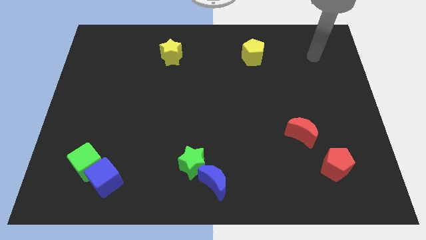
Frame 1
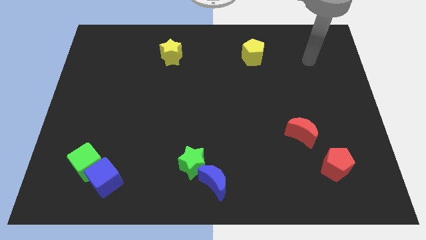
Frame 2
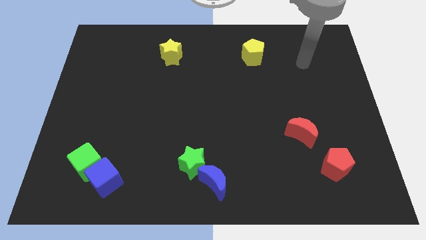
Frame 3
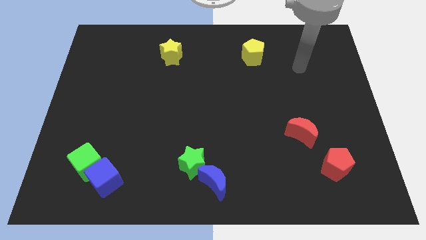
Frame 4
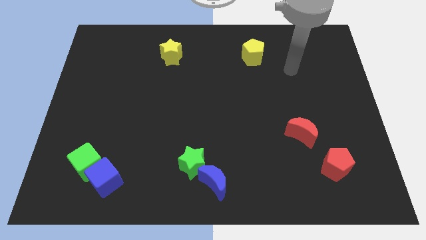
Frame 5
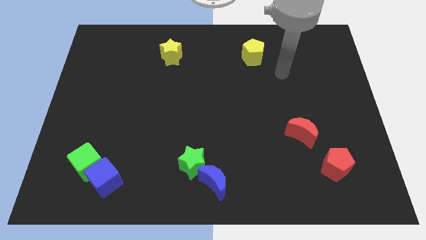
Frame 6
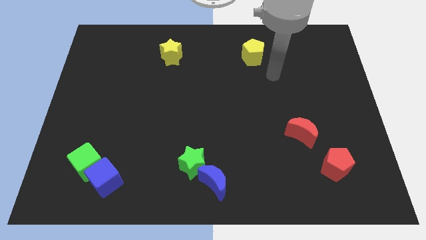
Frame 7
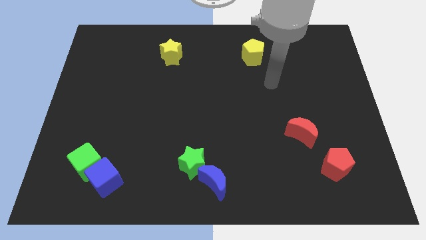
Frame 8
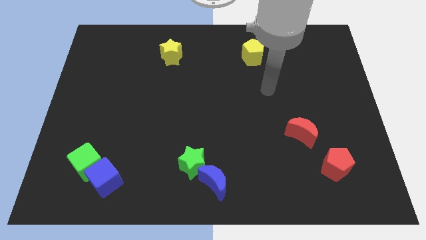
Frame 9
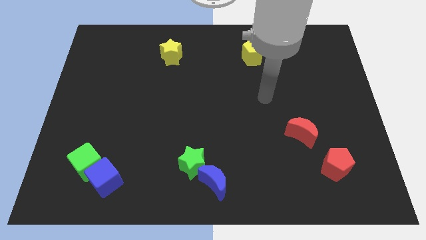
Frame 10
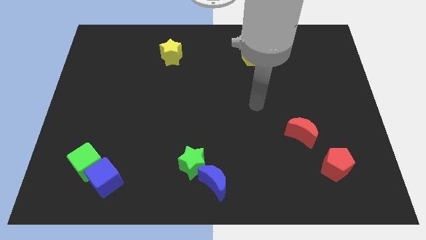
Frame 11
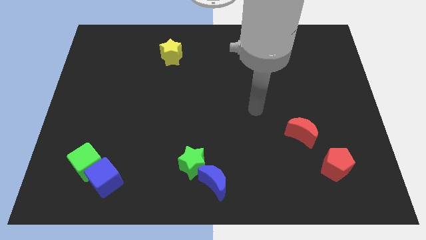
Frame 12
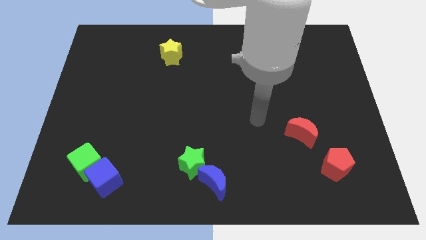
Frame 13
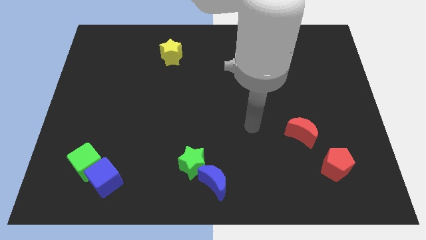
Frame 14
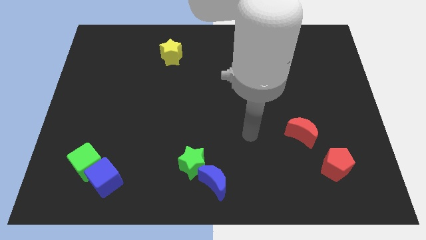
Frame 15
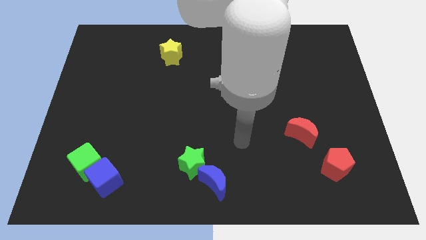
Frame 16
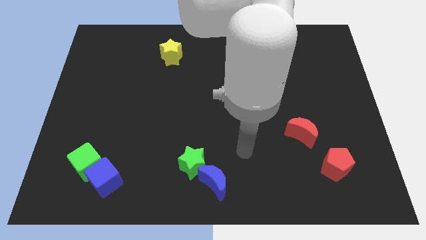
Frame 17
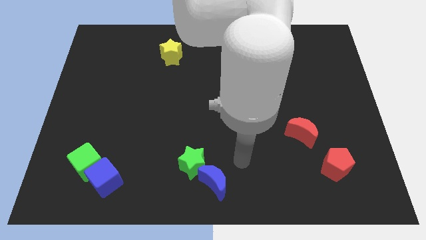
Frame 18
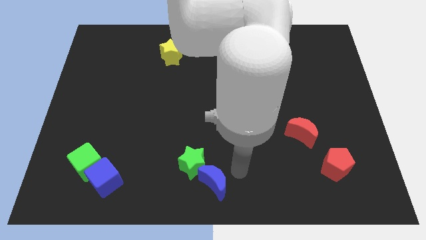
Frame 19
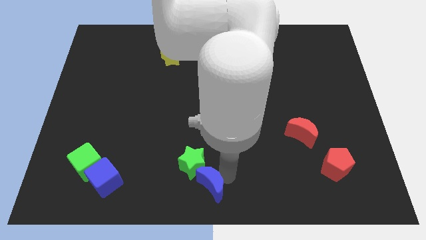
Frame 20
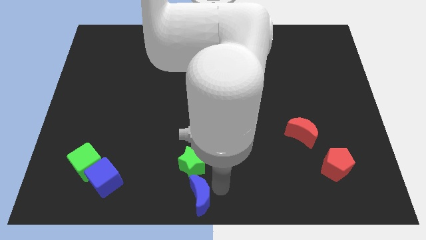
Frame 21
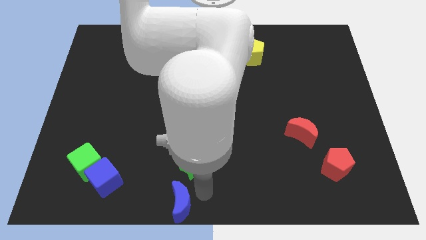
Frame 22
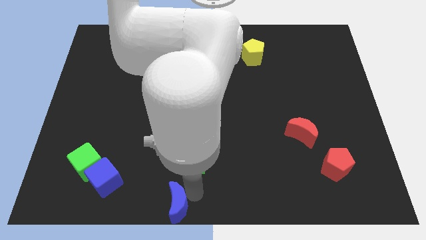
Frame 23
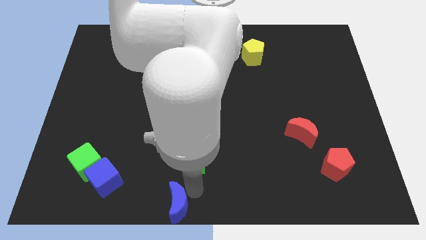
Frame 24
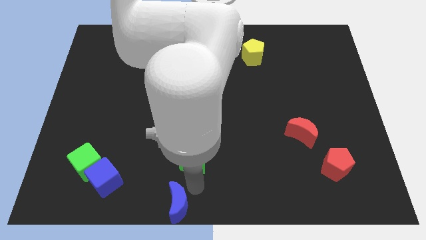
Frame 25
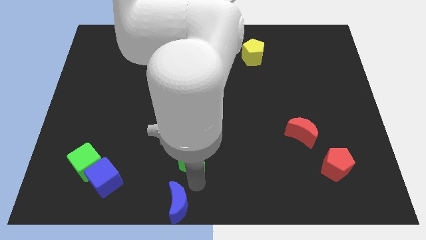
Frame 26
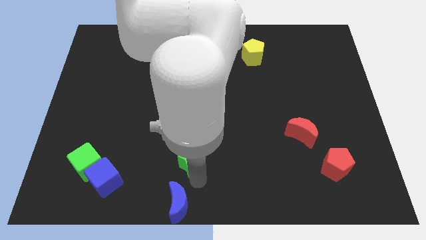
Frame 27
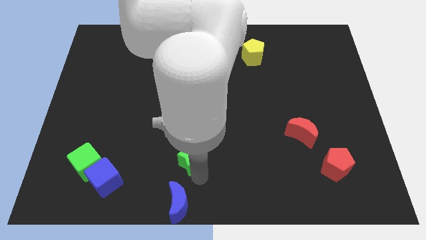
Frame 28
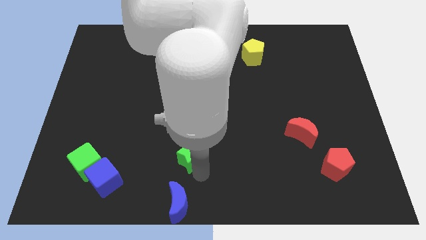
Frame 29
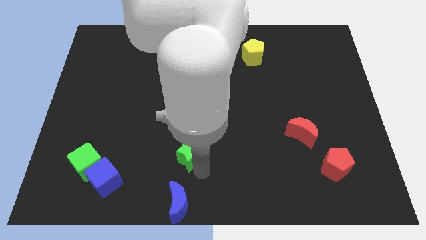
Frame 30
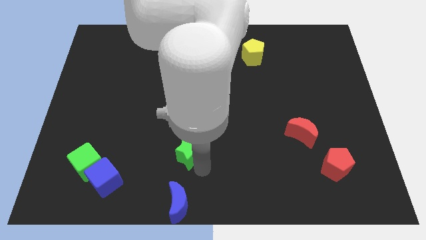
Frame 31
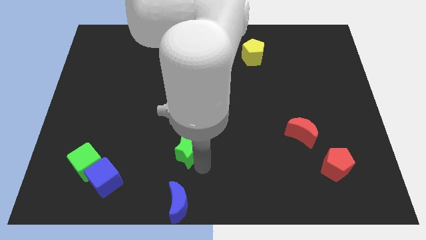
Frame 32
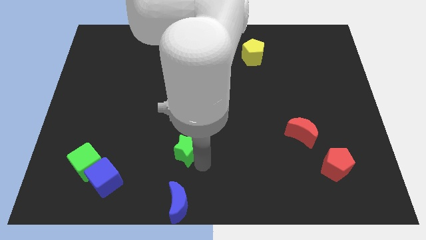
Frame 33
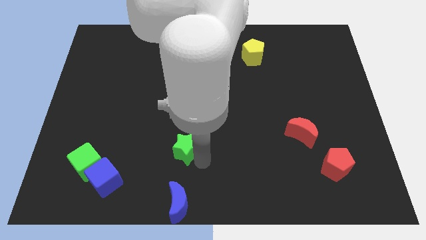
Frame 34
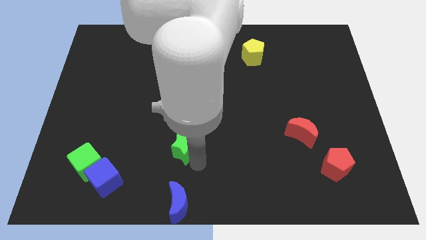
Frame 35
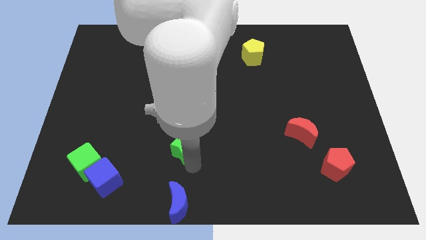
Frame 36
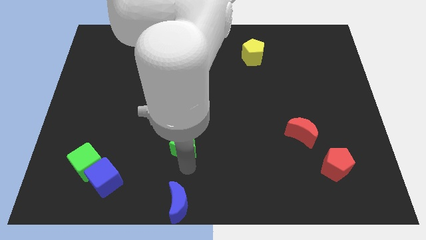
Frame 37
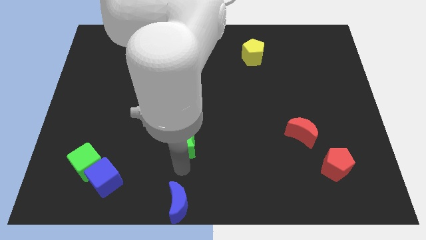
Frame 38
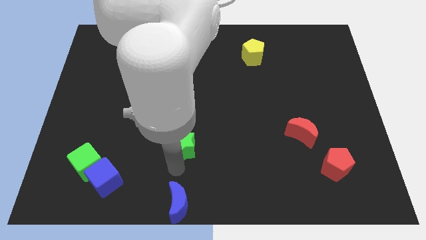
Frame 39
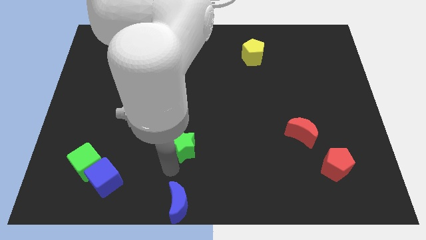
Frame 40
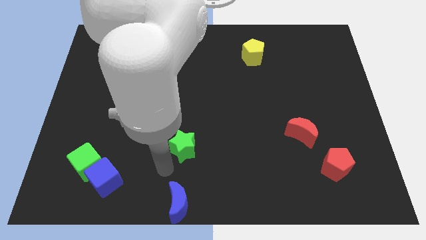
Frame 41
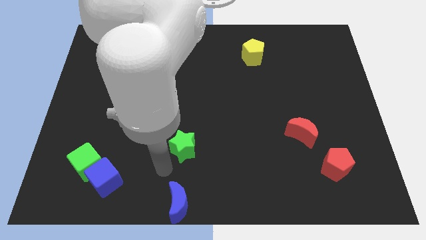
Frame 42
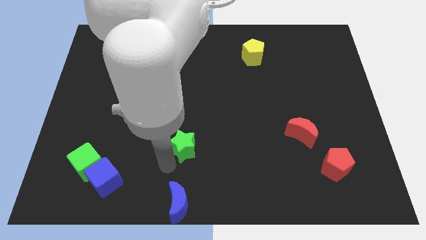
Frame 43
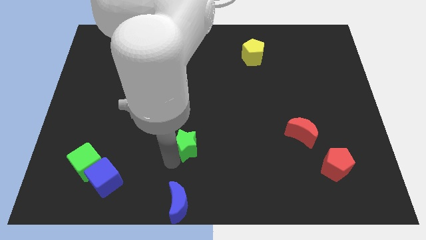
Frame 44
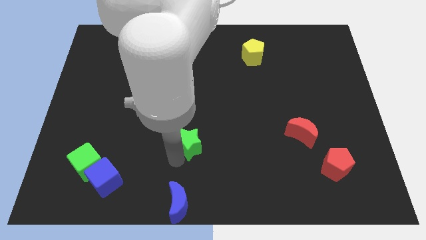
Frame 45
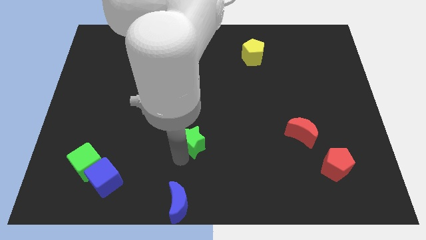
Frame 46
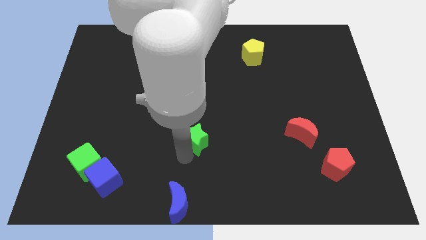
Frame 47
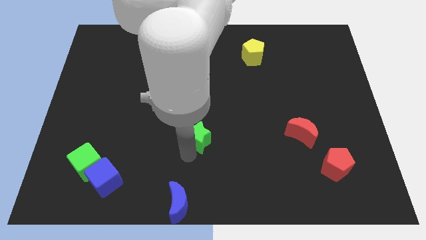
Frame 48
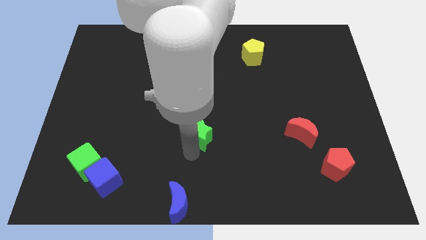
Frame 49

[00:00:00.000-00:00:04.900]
slightly slide the green star up

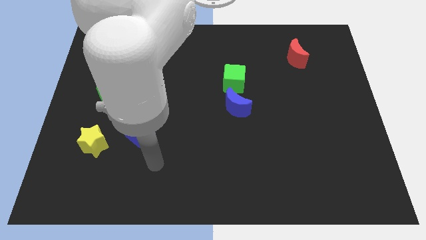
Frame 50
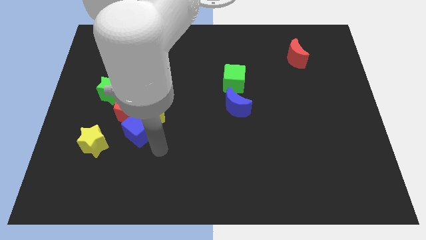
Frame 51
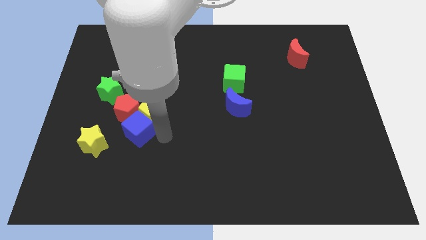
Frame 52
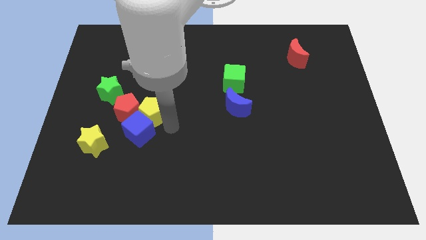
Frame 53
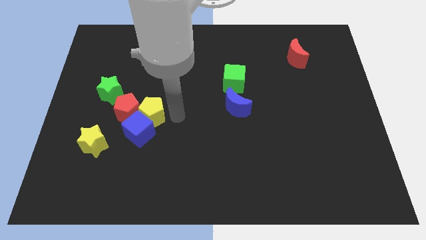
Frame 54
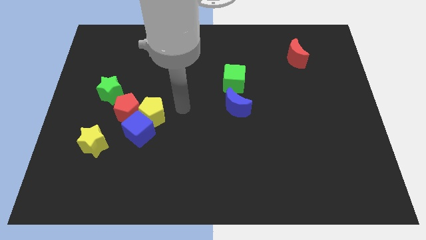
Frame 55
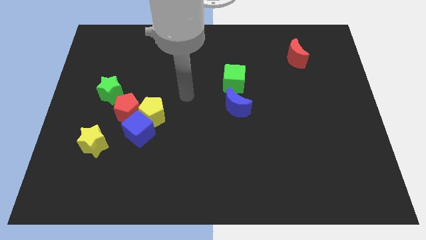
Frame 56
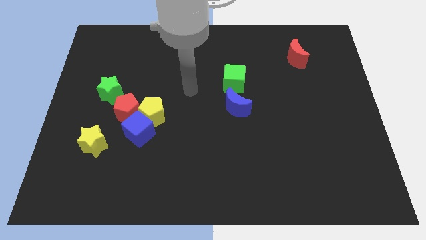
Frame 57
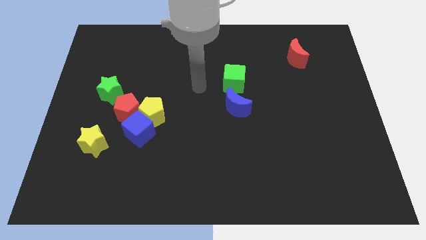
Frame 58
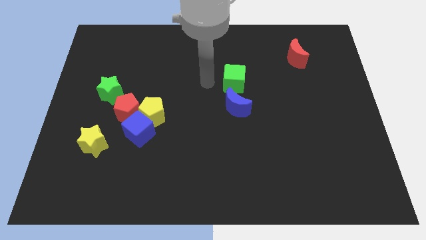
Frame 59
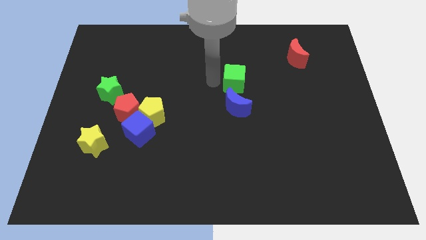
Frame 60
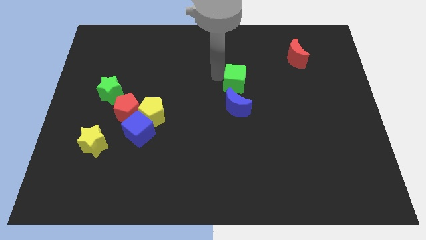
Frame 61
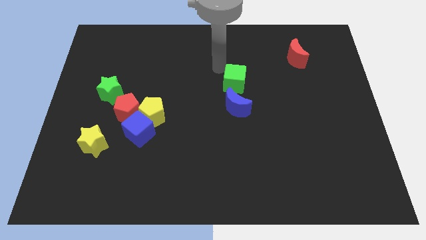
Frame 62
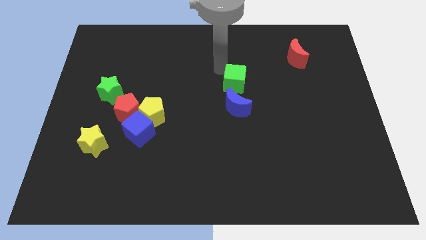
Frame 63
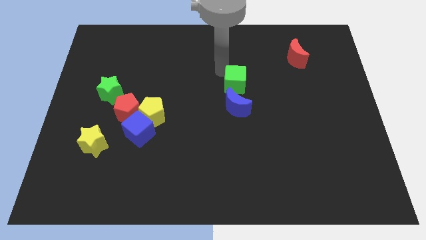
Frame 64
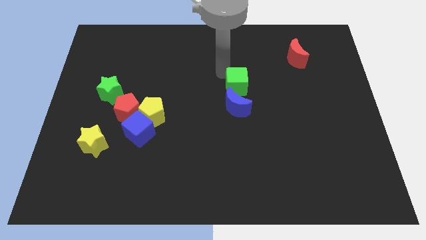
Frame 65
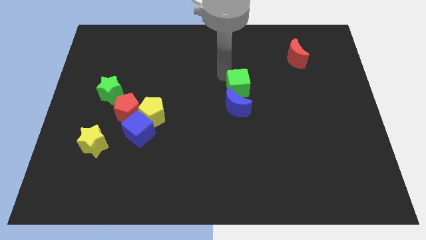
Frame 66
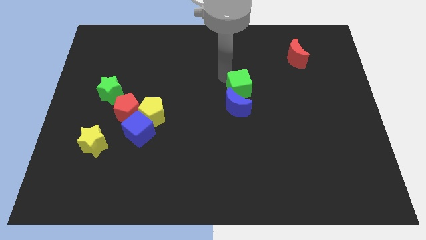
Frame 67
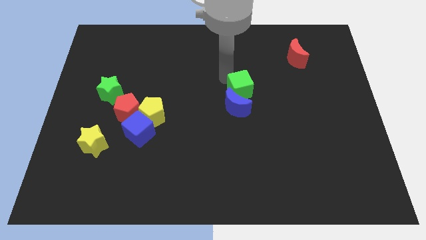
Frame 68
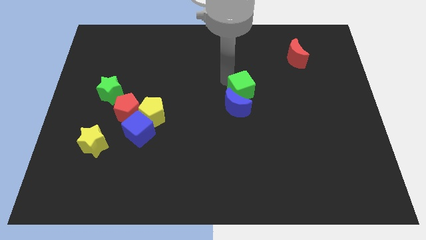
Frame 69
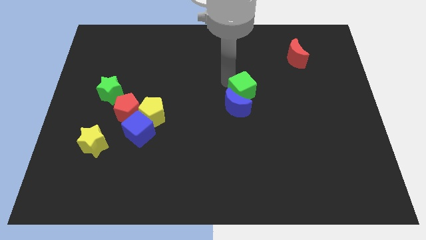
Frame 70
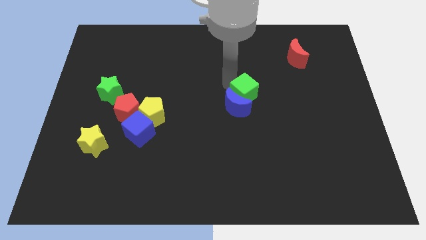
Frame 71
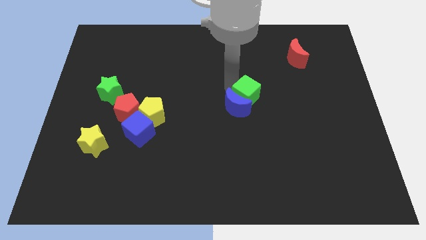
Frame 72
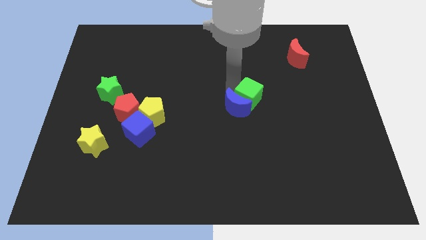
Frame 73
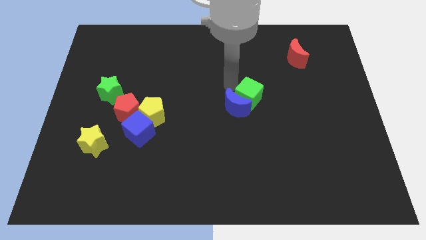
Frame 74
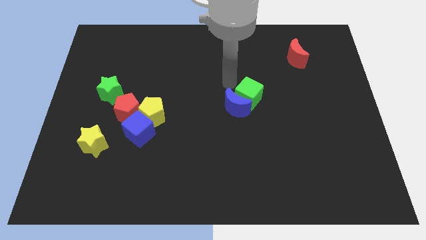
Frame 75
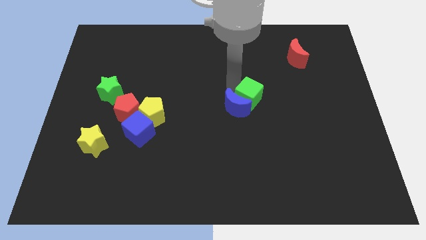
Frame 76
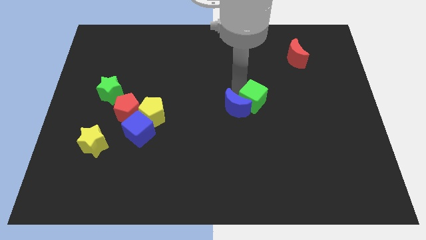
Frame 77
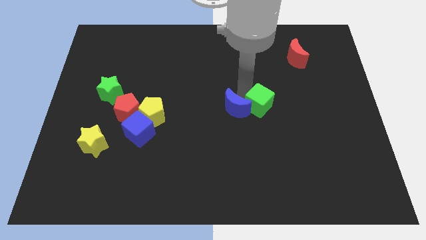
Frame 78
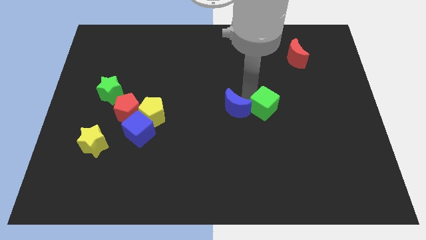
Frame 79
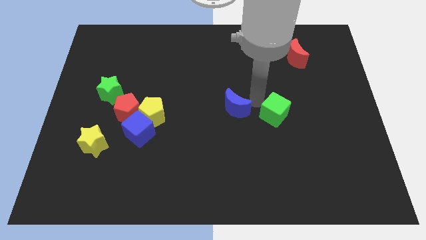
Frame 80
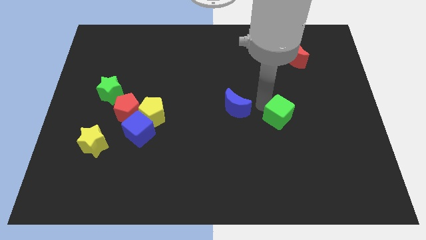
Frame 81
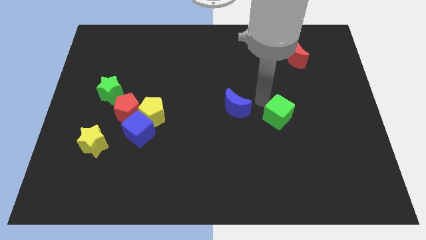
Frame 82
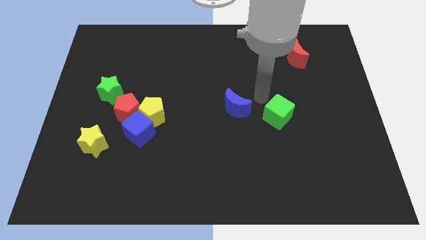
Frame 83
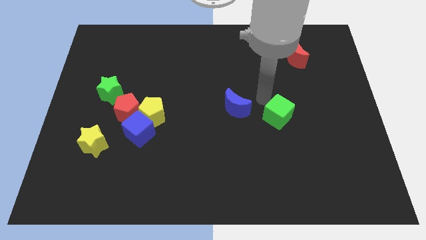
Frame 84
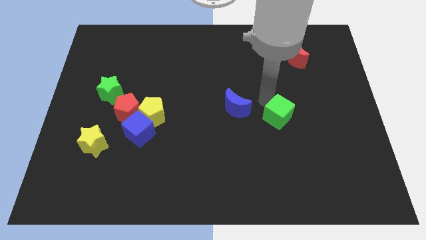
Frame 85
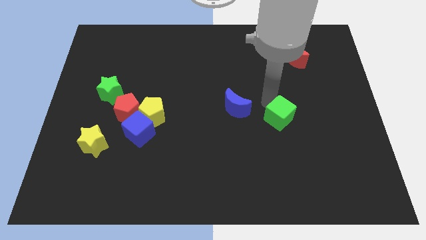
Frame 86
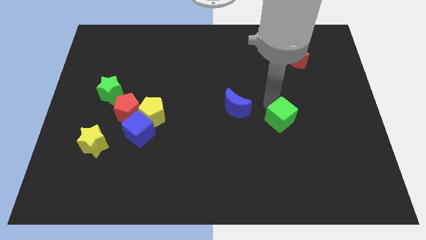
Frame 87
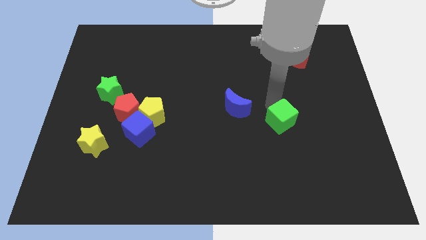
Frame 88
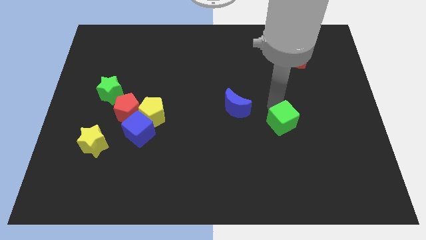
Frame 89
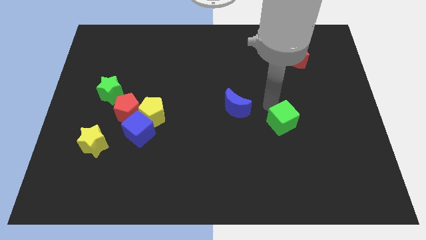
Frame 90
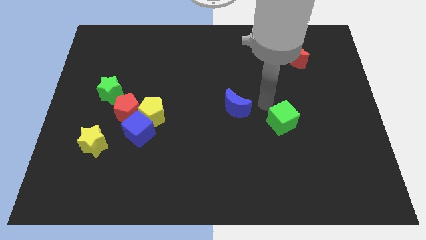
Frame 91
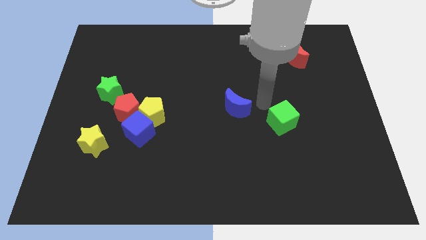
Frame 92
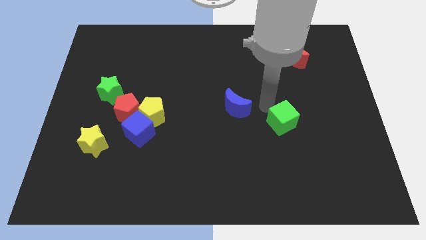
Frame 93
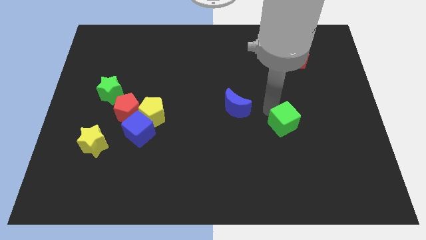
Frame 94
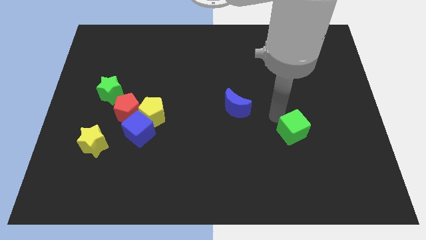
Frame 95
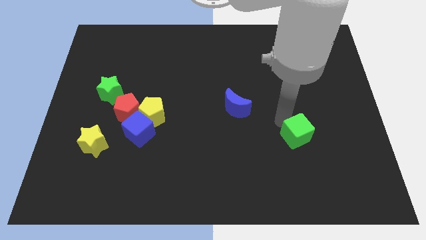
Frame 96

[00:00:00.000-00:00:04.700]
push the green cube diagonally downwards and to the right
